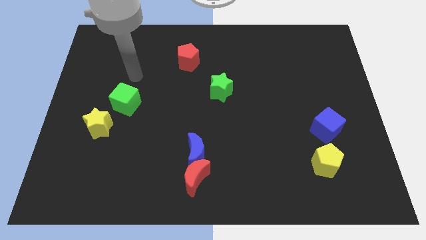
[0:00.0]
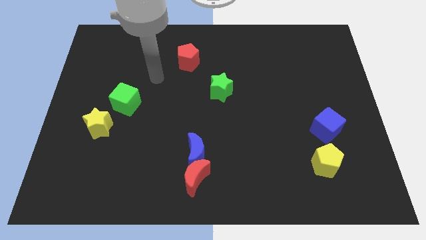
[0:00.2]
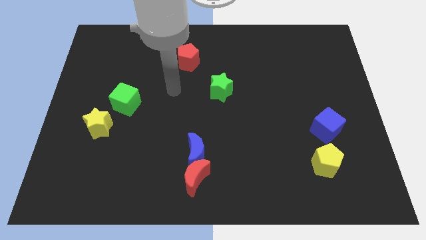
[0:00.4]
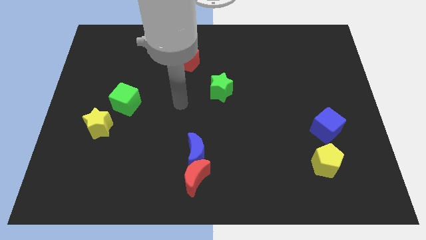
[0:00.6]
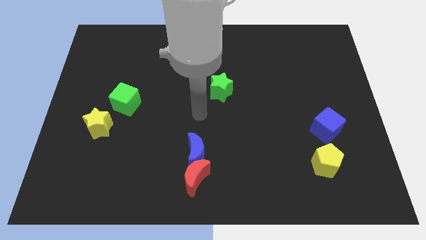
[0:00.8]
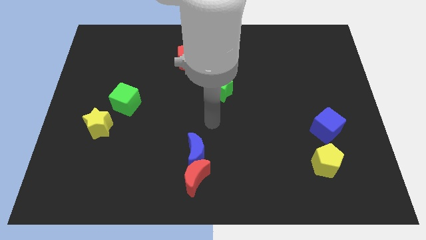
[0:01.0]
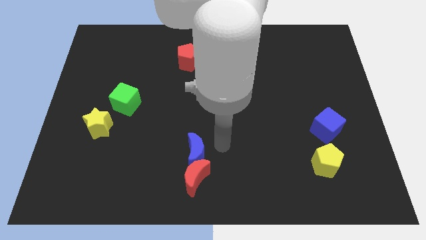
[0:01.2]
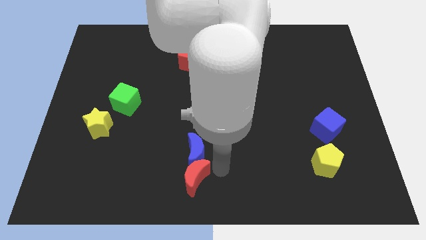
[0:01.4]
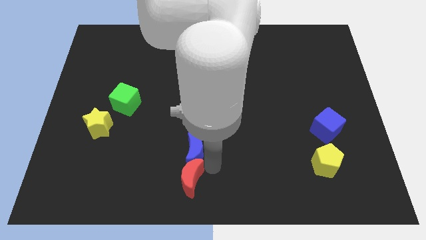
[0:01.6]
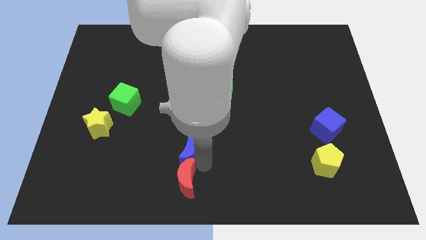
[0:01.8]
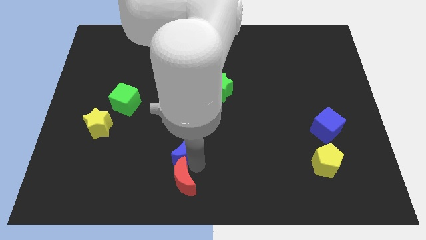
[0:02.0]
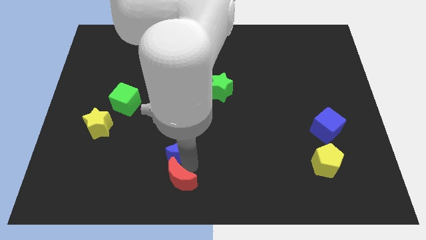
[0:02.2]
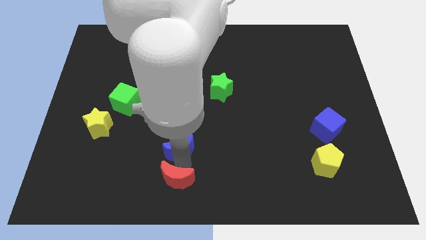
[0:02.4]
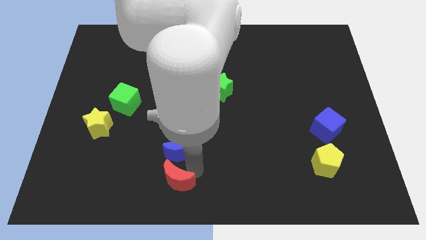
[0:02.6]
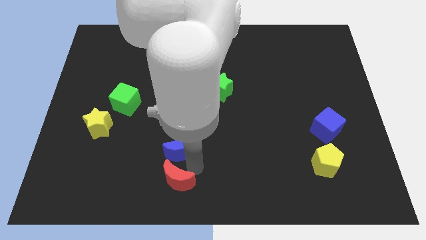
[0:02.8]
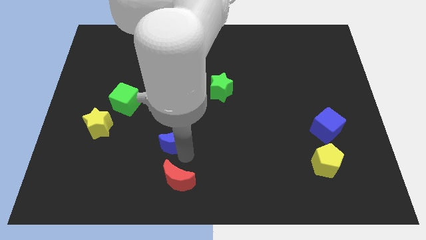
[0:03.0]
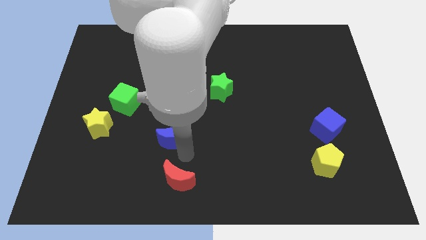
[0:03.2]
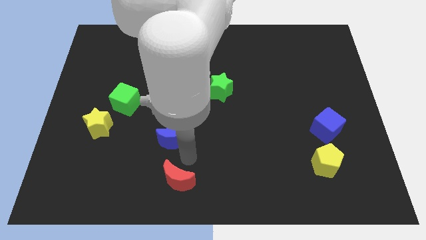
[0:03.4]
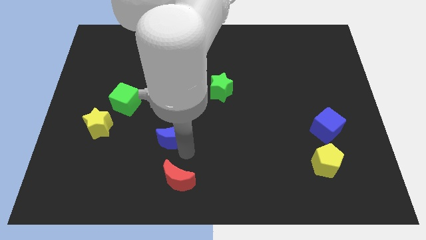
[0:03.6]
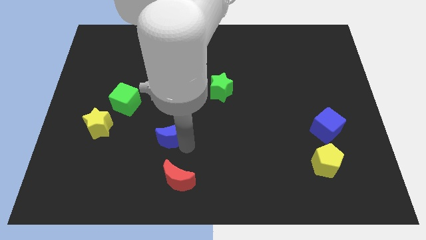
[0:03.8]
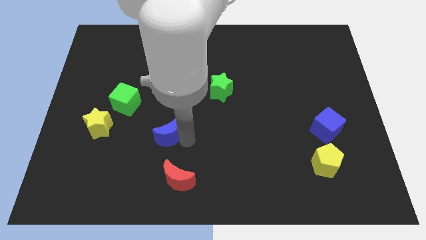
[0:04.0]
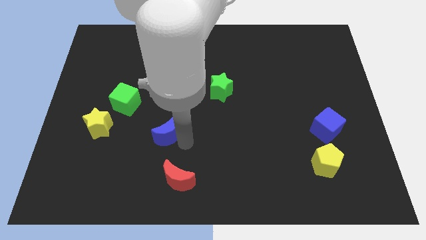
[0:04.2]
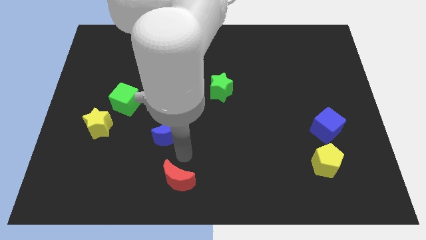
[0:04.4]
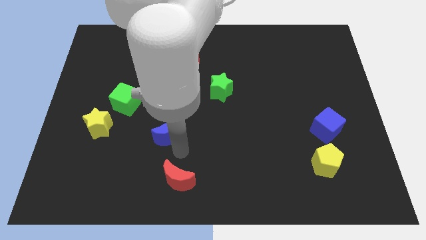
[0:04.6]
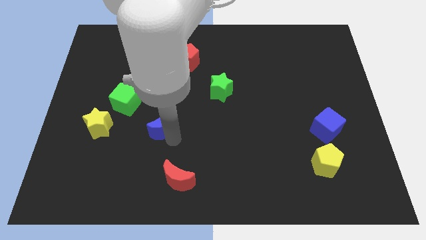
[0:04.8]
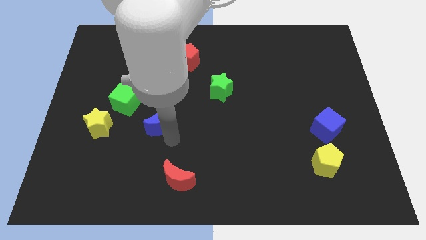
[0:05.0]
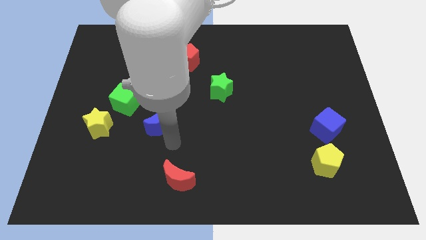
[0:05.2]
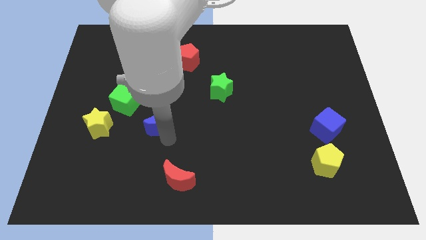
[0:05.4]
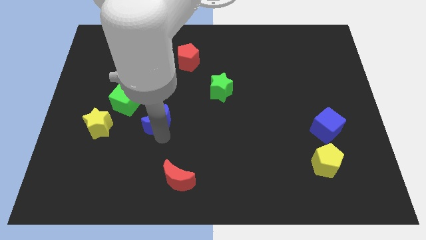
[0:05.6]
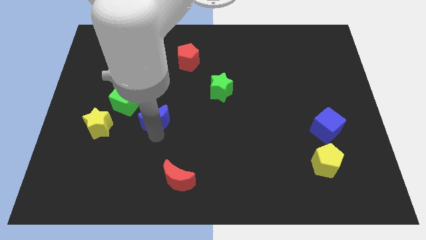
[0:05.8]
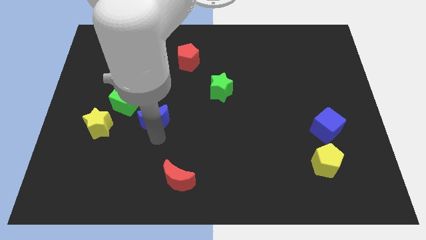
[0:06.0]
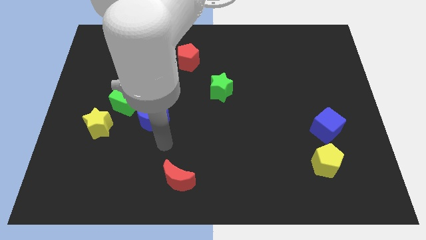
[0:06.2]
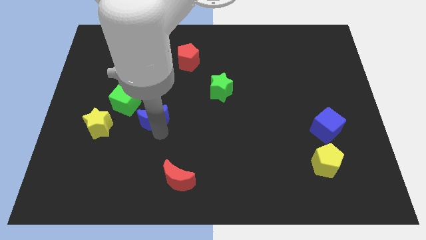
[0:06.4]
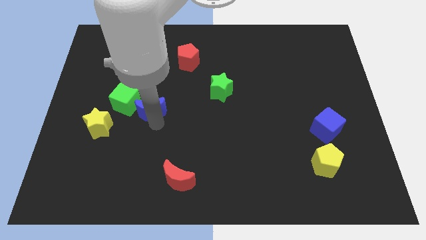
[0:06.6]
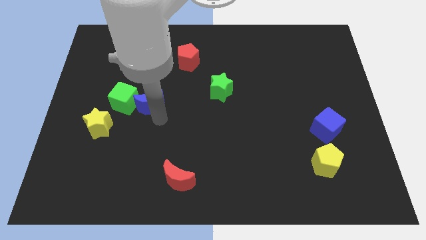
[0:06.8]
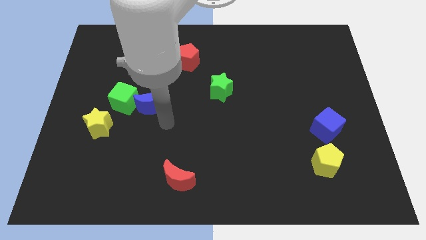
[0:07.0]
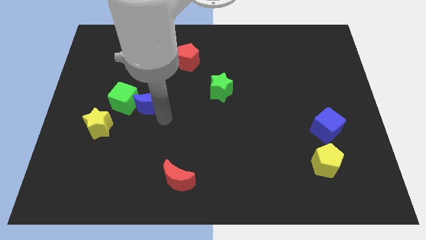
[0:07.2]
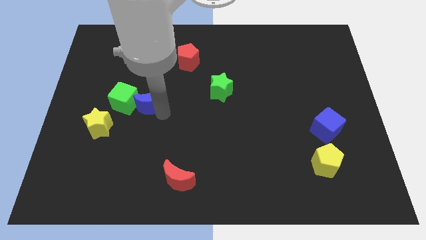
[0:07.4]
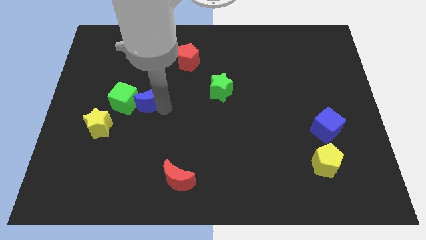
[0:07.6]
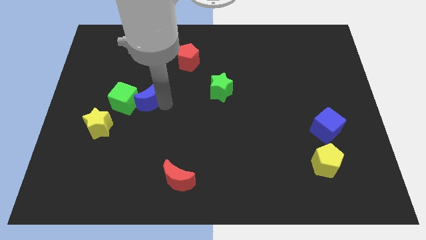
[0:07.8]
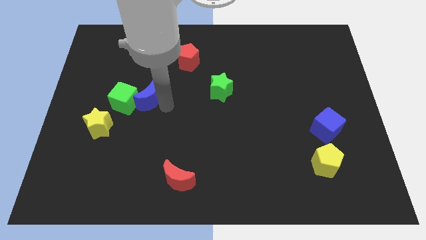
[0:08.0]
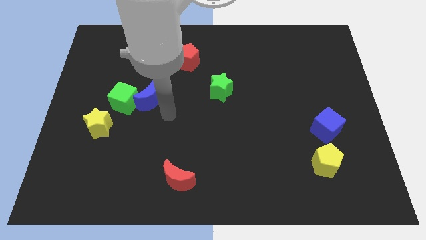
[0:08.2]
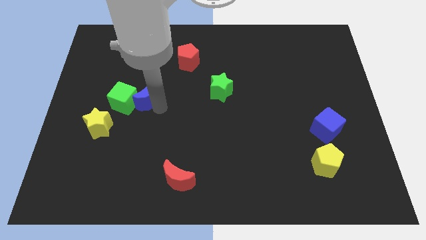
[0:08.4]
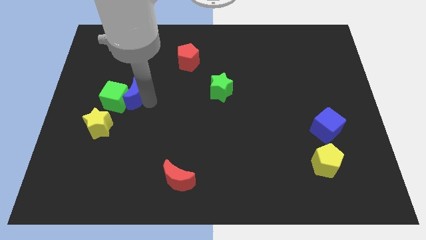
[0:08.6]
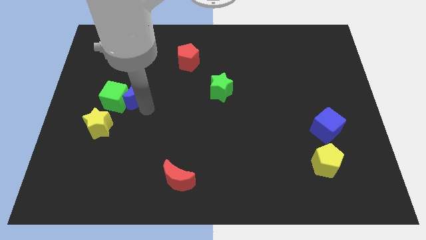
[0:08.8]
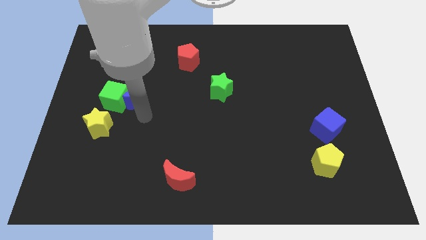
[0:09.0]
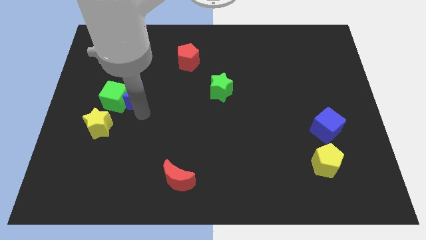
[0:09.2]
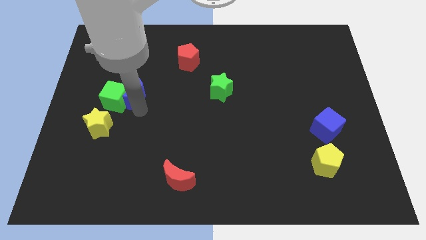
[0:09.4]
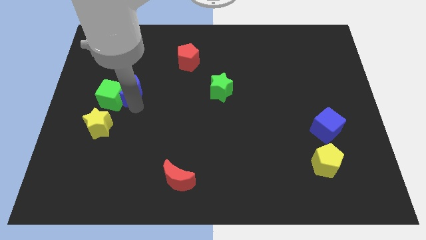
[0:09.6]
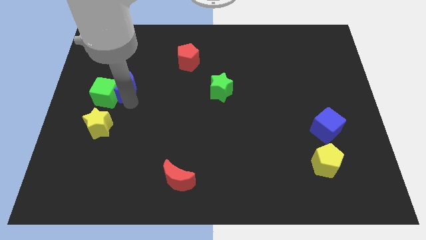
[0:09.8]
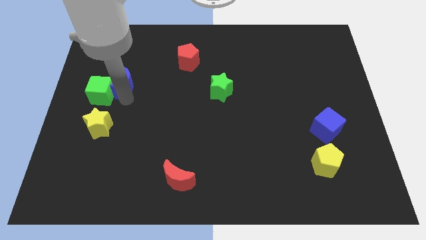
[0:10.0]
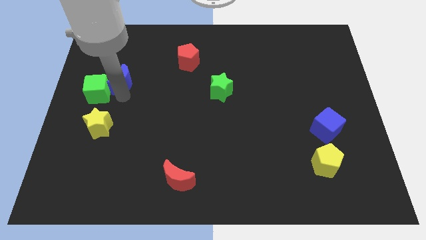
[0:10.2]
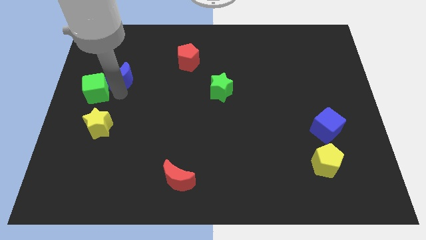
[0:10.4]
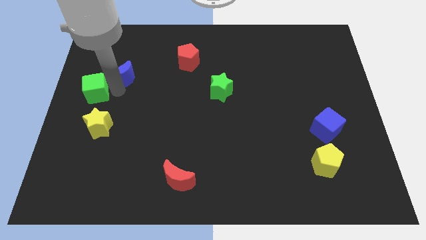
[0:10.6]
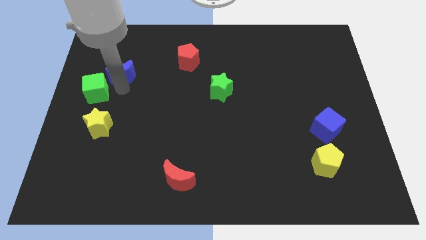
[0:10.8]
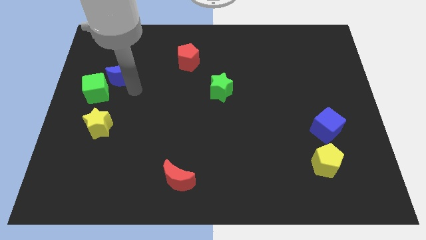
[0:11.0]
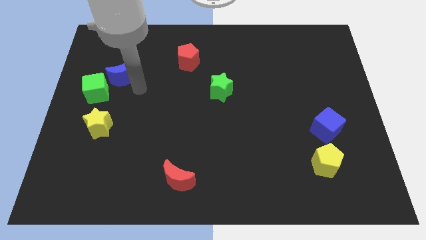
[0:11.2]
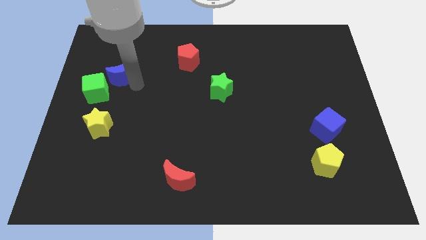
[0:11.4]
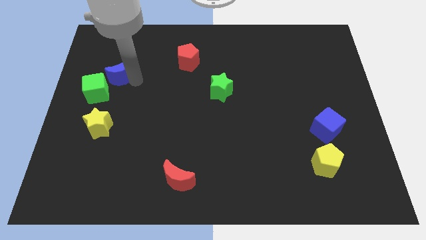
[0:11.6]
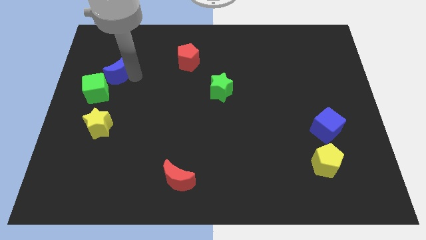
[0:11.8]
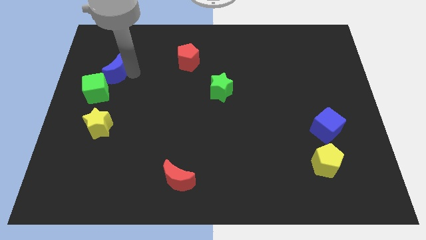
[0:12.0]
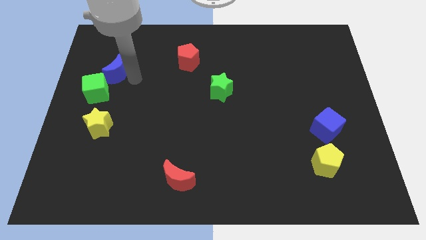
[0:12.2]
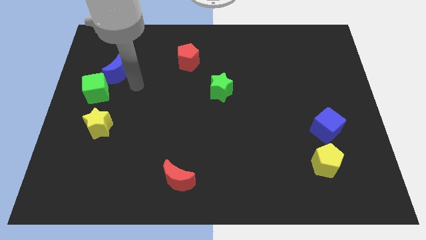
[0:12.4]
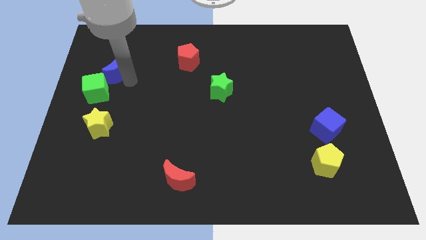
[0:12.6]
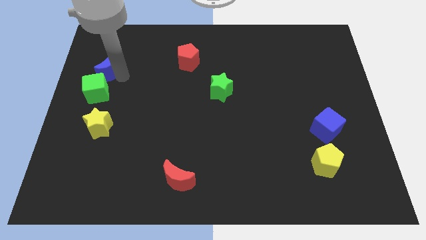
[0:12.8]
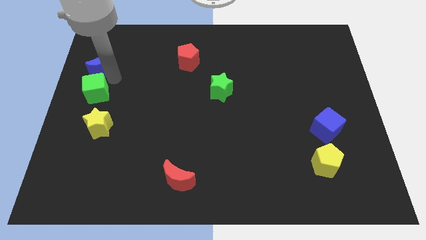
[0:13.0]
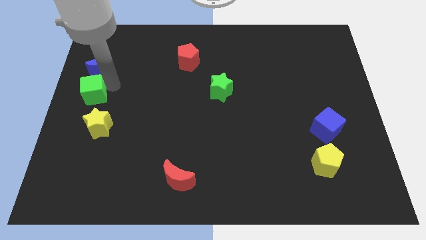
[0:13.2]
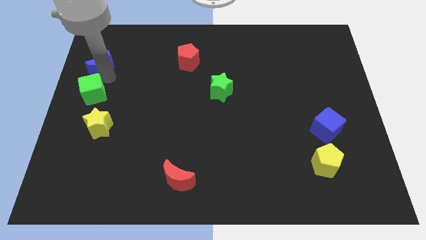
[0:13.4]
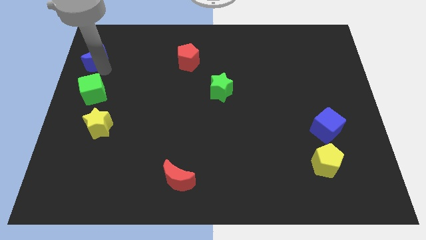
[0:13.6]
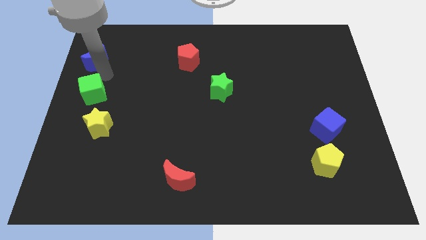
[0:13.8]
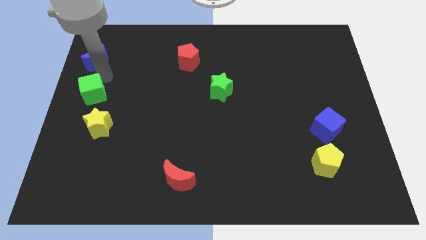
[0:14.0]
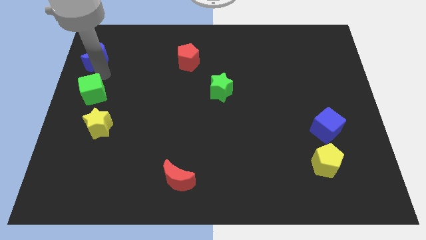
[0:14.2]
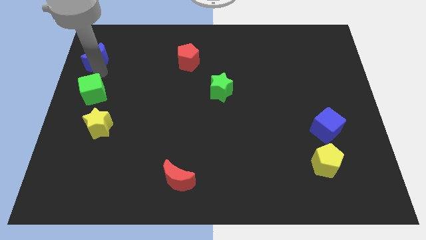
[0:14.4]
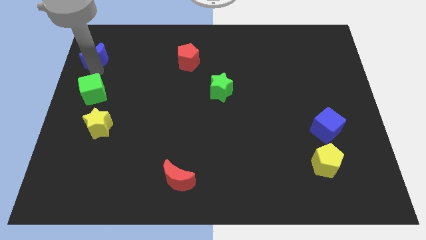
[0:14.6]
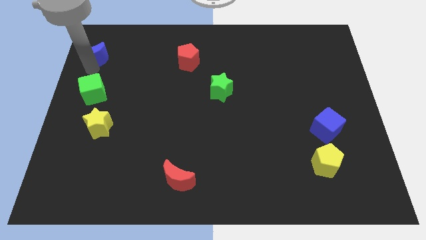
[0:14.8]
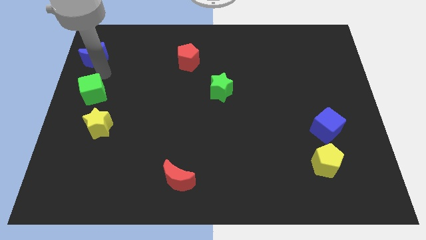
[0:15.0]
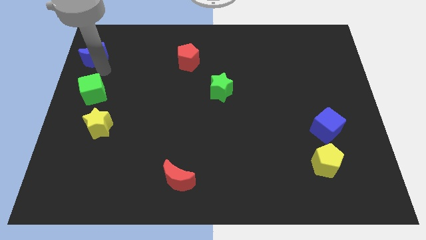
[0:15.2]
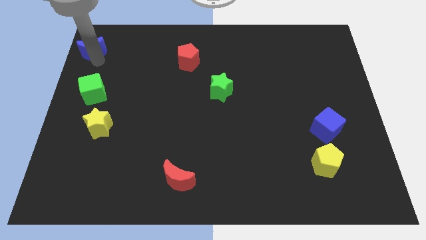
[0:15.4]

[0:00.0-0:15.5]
slide the blue moon to the top left
